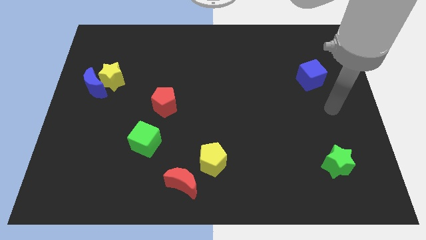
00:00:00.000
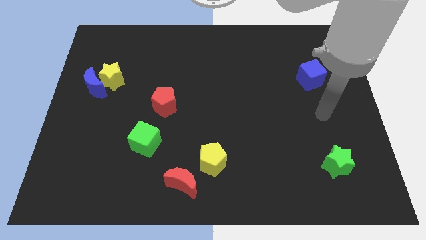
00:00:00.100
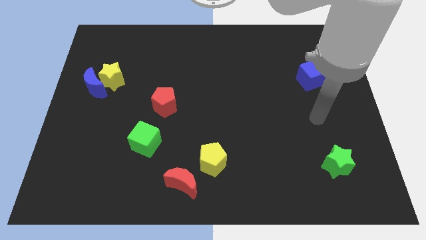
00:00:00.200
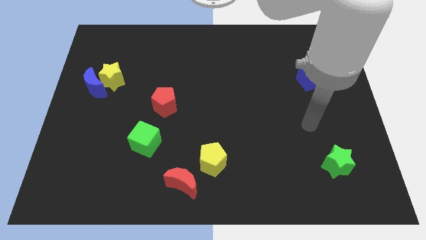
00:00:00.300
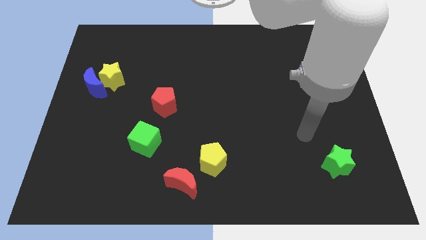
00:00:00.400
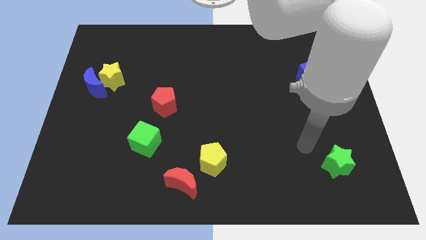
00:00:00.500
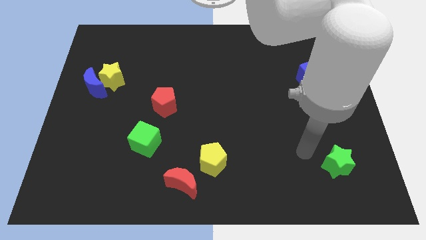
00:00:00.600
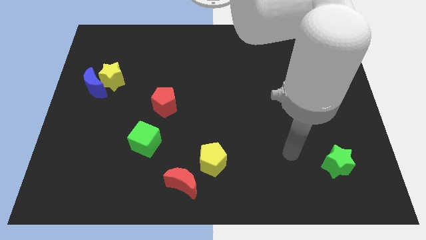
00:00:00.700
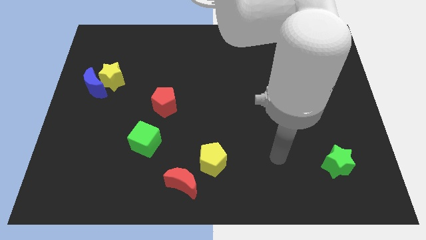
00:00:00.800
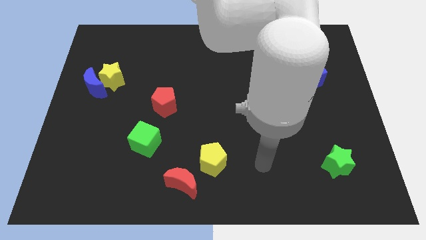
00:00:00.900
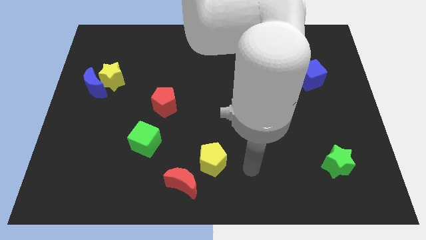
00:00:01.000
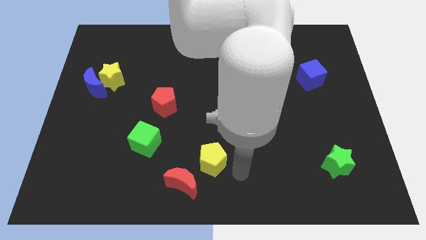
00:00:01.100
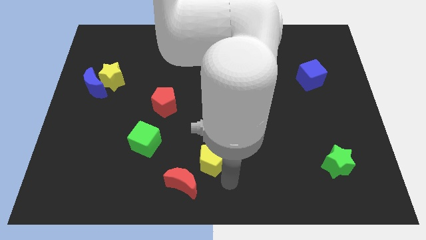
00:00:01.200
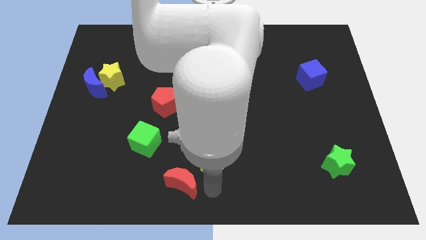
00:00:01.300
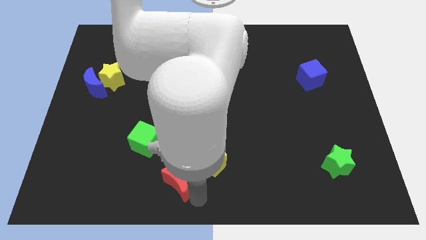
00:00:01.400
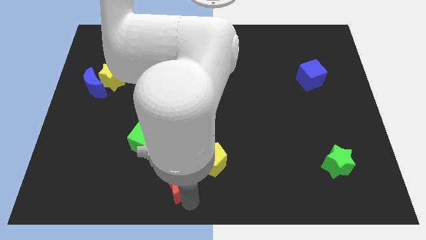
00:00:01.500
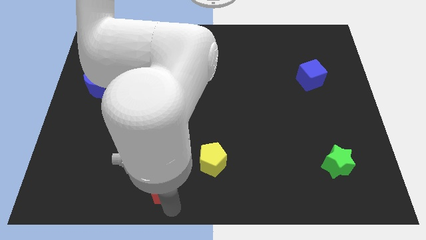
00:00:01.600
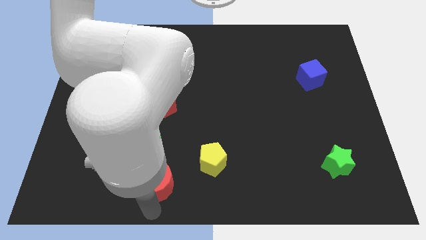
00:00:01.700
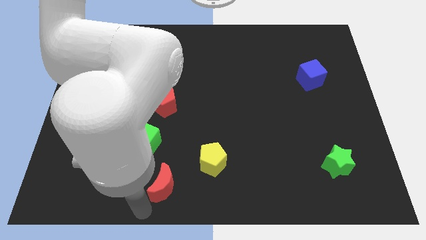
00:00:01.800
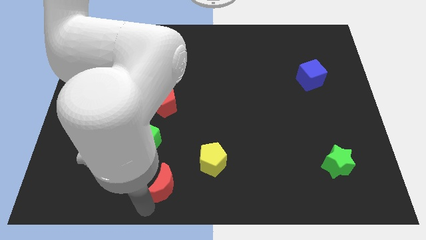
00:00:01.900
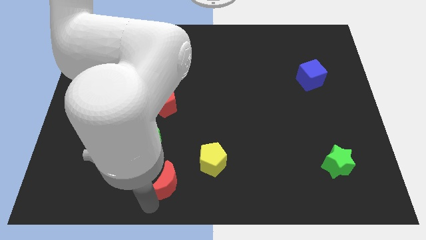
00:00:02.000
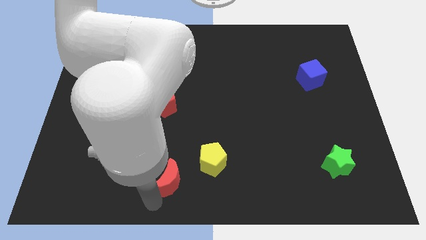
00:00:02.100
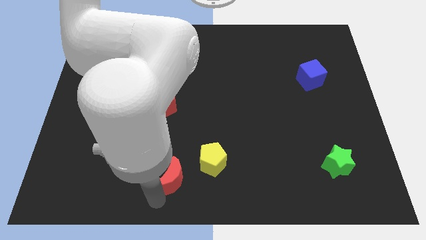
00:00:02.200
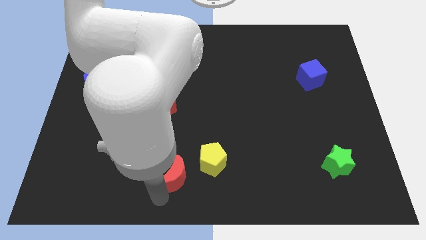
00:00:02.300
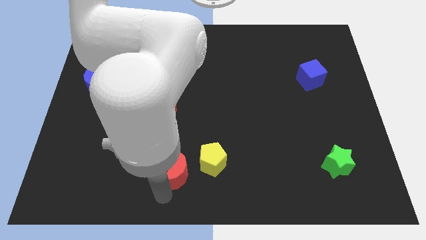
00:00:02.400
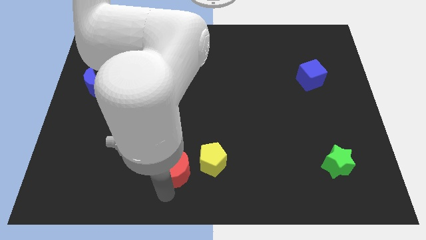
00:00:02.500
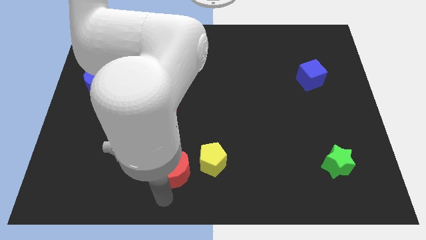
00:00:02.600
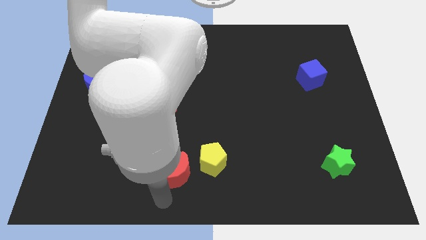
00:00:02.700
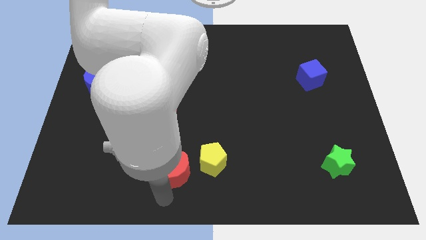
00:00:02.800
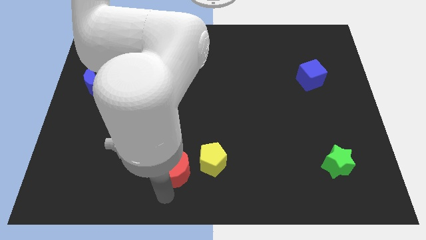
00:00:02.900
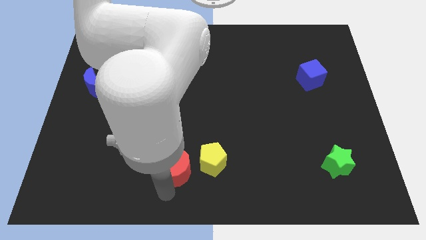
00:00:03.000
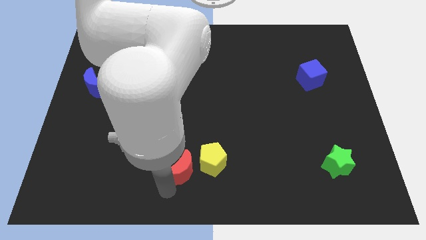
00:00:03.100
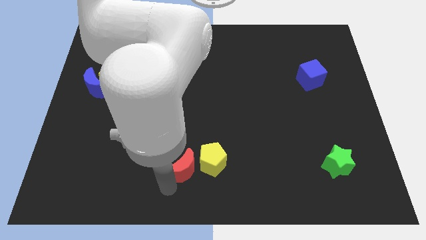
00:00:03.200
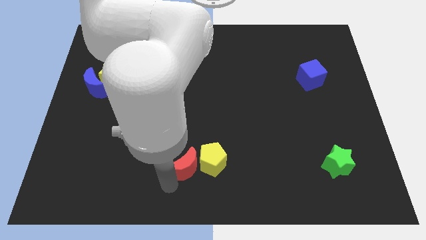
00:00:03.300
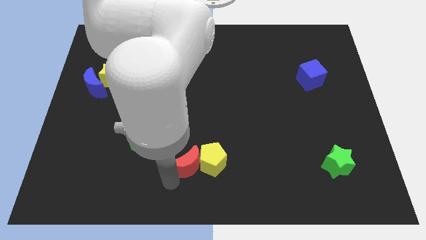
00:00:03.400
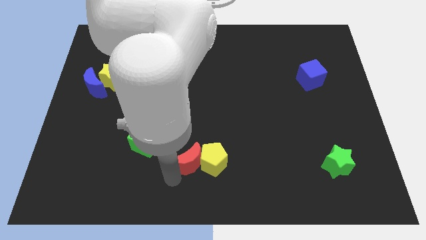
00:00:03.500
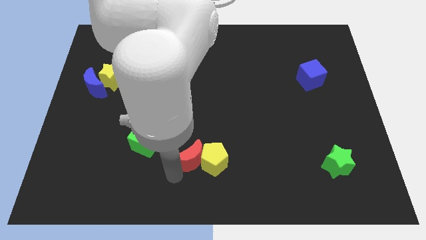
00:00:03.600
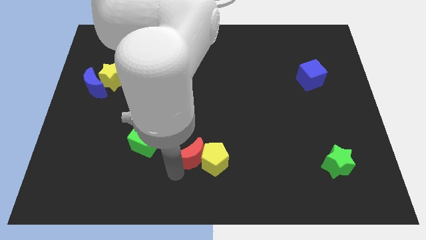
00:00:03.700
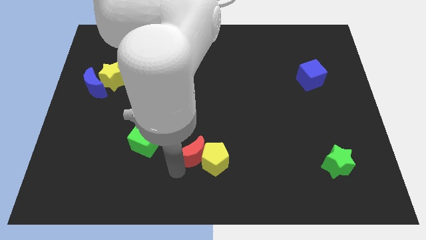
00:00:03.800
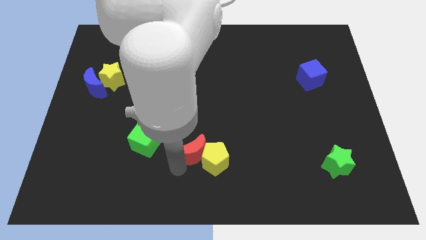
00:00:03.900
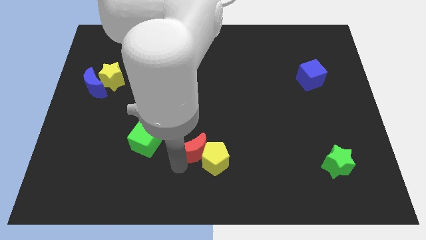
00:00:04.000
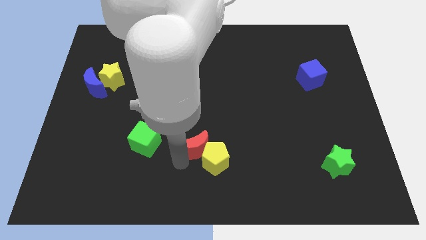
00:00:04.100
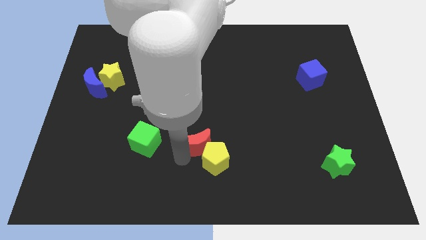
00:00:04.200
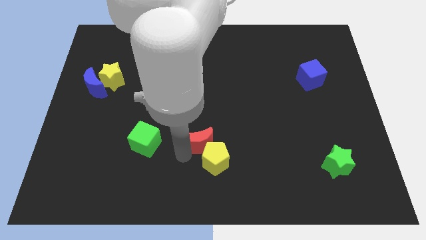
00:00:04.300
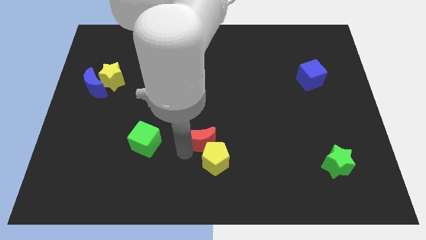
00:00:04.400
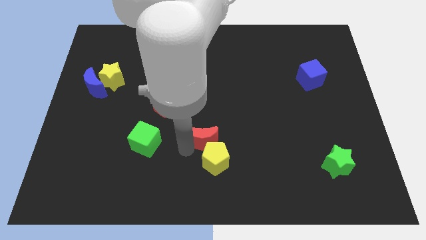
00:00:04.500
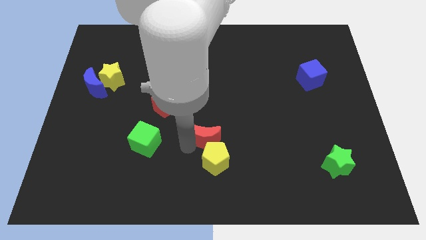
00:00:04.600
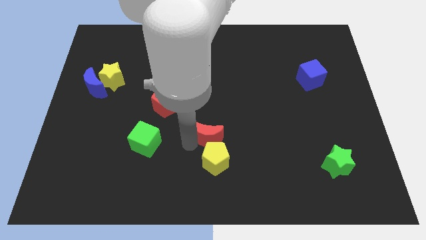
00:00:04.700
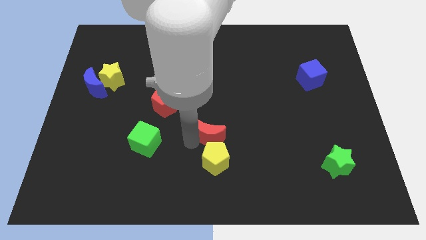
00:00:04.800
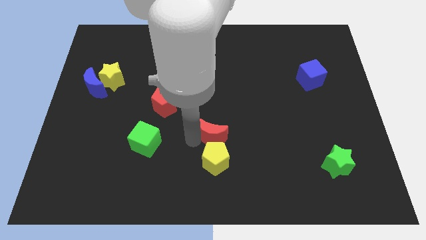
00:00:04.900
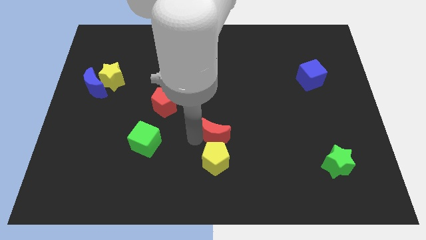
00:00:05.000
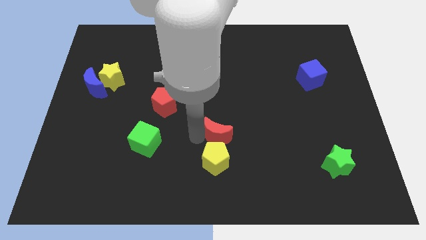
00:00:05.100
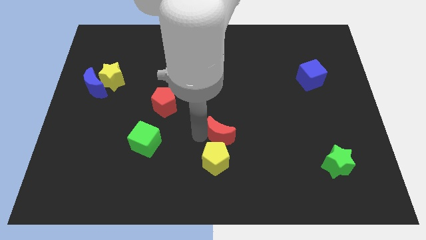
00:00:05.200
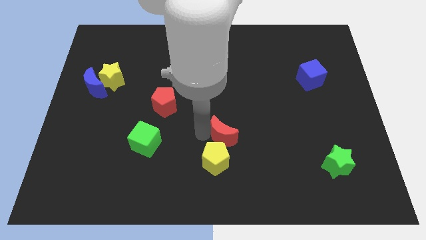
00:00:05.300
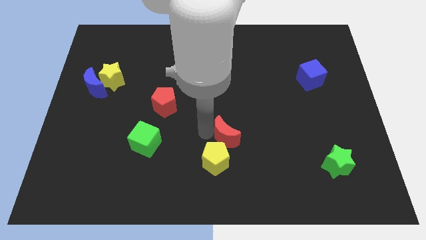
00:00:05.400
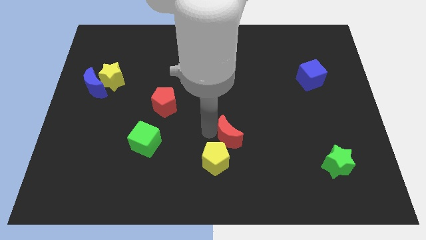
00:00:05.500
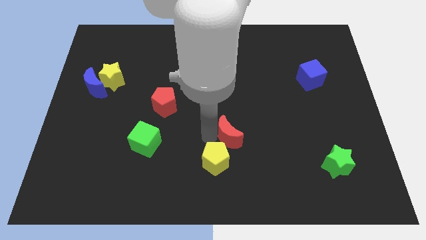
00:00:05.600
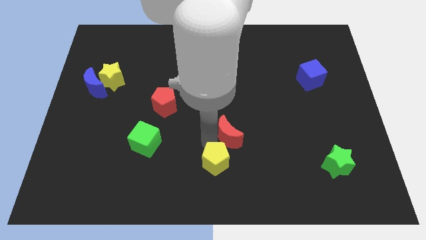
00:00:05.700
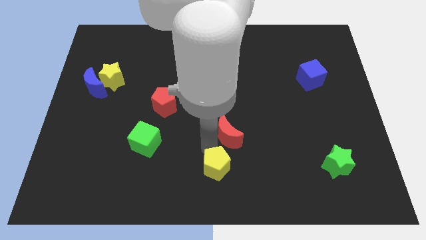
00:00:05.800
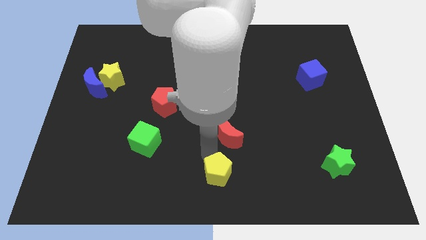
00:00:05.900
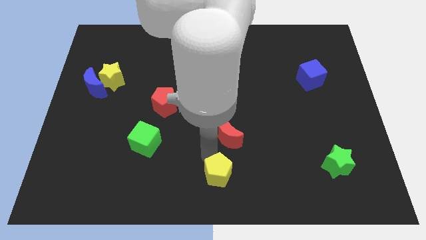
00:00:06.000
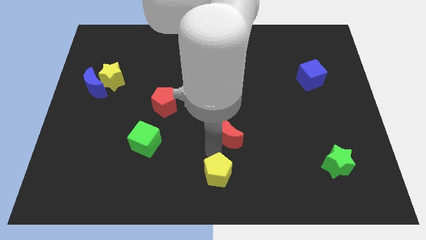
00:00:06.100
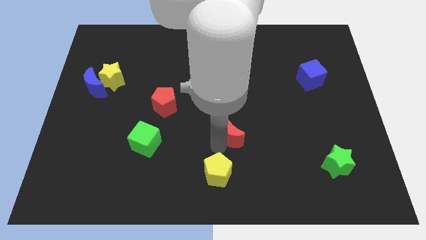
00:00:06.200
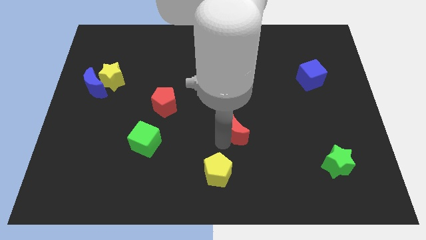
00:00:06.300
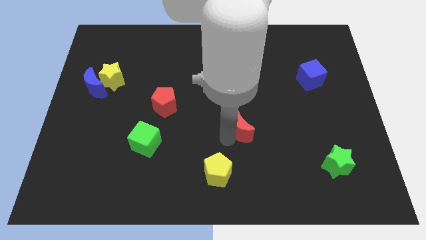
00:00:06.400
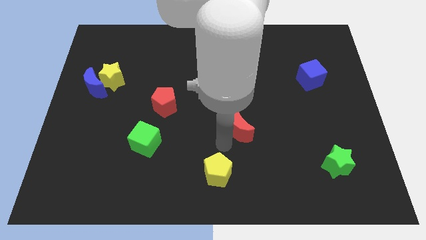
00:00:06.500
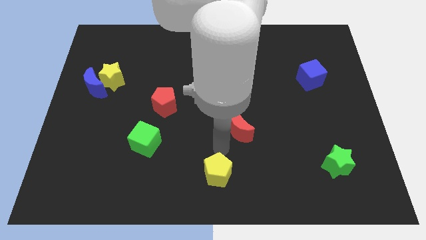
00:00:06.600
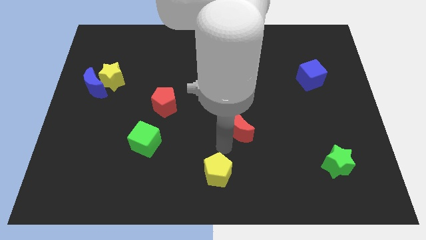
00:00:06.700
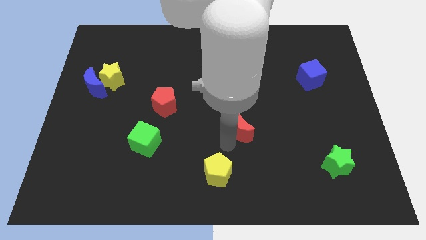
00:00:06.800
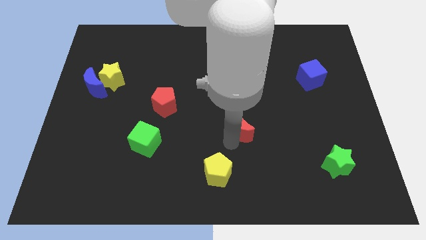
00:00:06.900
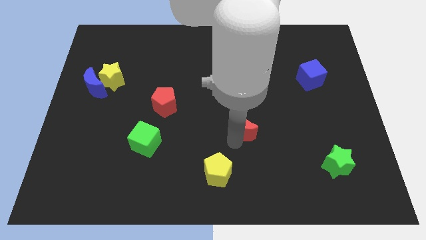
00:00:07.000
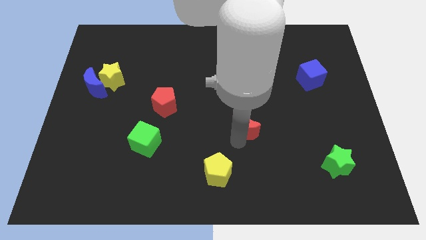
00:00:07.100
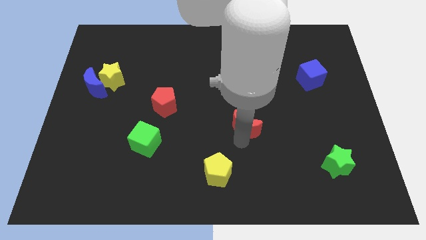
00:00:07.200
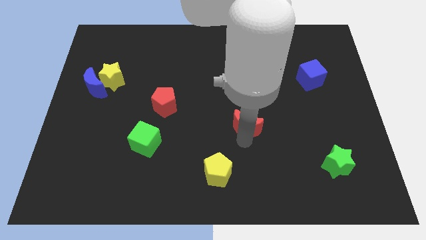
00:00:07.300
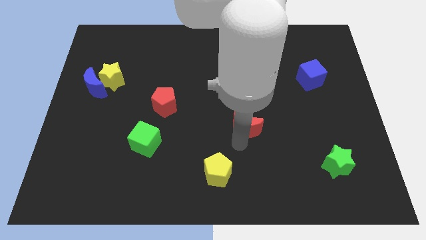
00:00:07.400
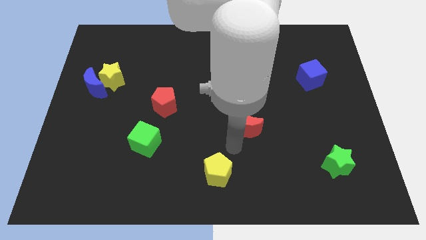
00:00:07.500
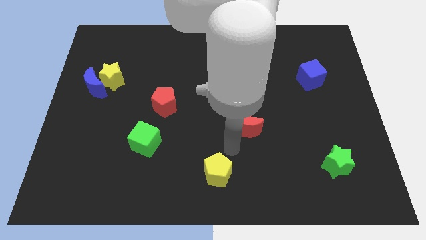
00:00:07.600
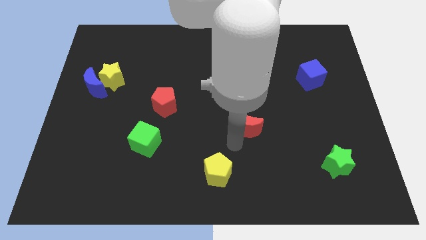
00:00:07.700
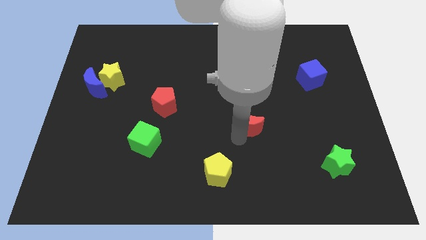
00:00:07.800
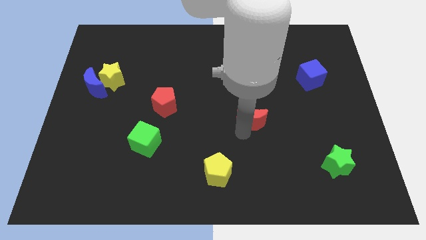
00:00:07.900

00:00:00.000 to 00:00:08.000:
push the red moon up and right diagonally

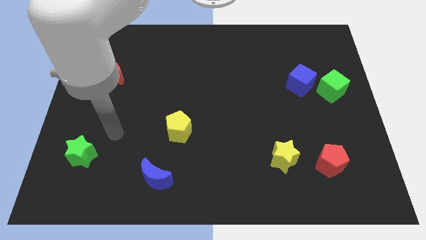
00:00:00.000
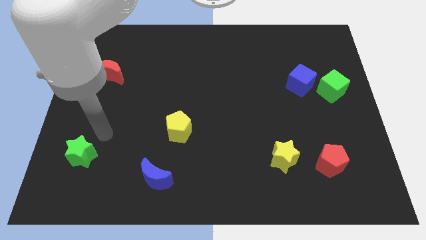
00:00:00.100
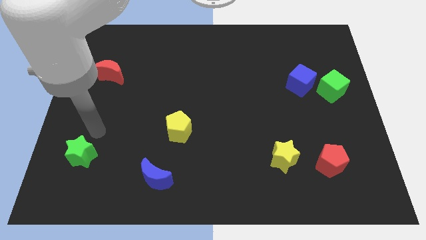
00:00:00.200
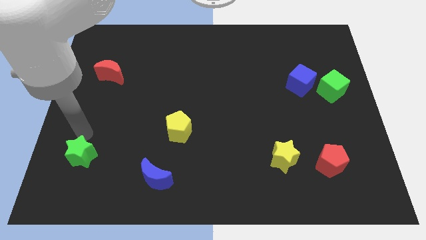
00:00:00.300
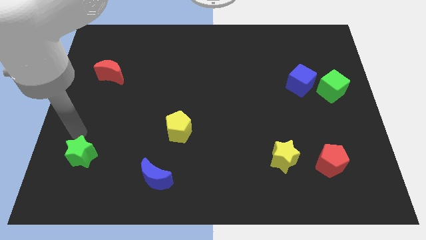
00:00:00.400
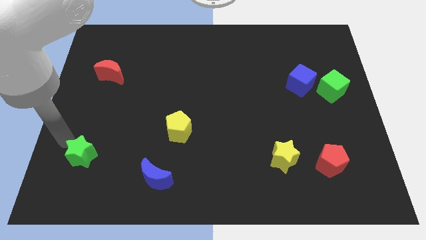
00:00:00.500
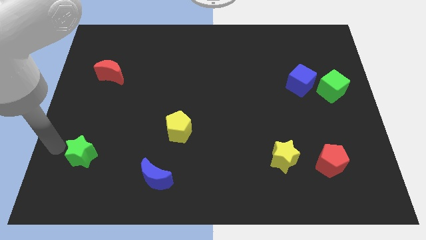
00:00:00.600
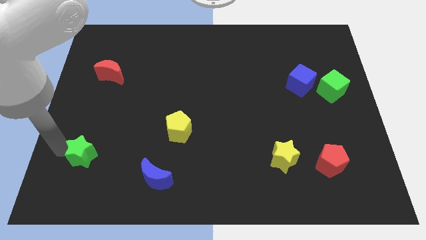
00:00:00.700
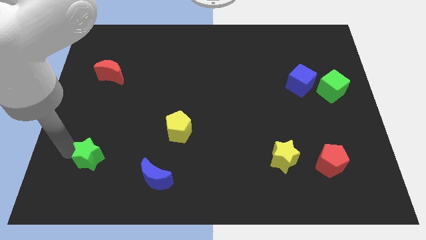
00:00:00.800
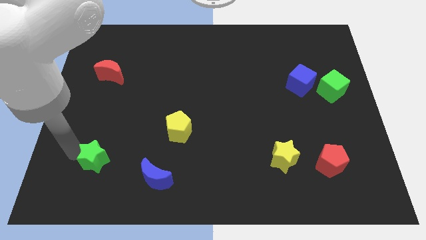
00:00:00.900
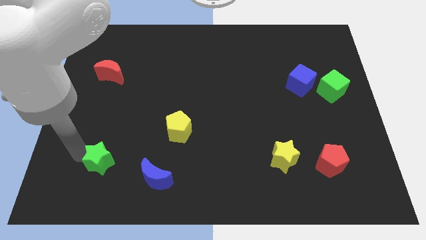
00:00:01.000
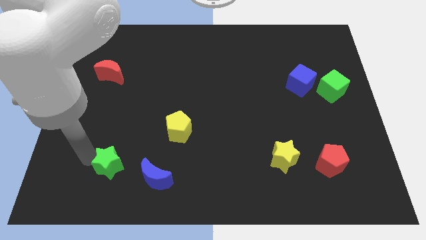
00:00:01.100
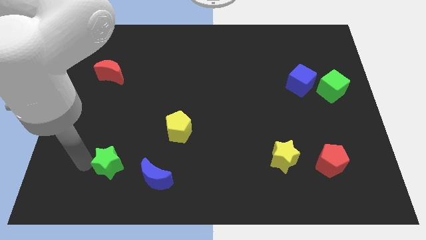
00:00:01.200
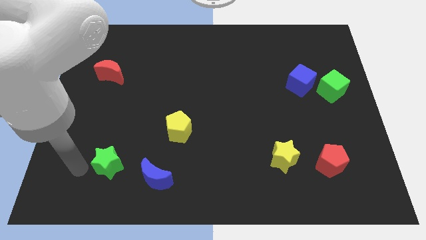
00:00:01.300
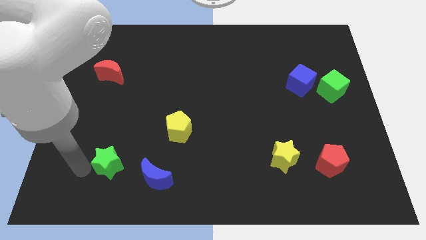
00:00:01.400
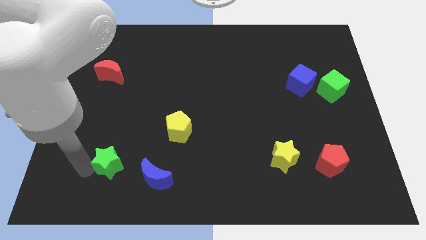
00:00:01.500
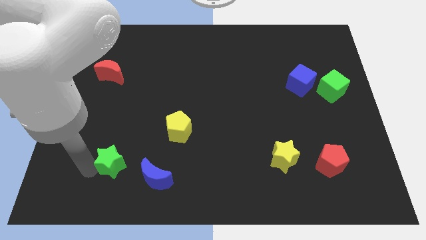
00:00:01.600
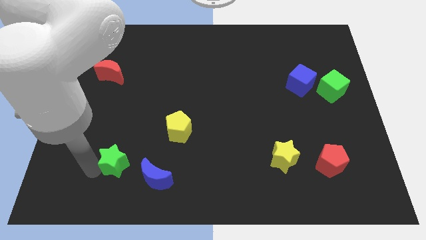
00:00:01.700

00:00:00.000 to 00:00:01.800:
push the green star a bit right
